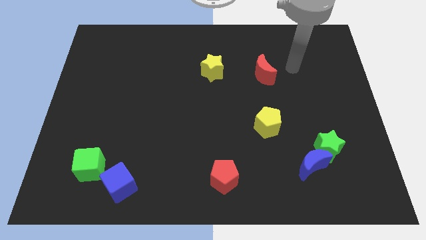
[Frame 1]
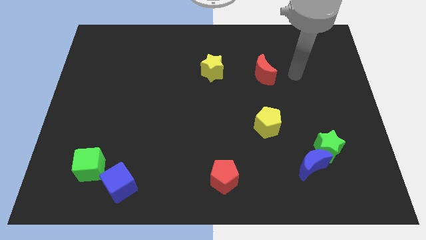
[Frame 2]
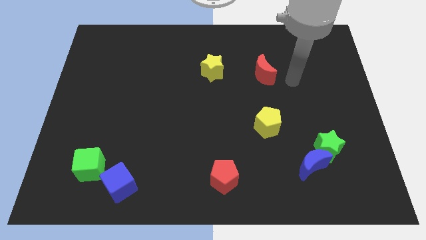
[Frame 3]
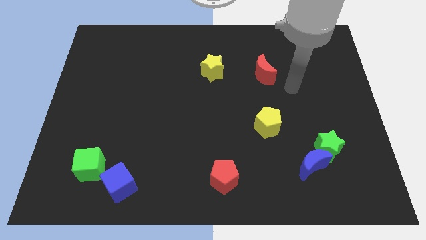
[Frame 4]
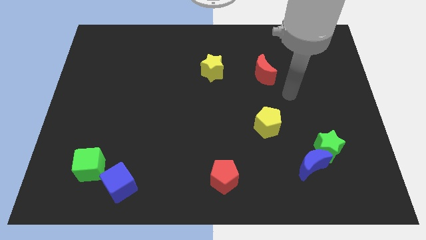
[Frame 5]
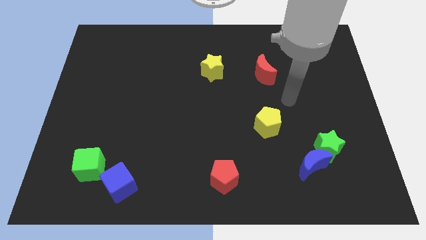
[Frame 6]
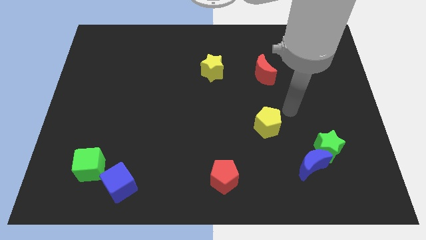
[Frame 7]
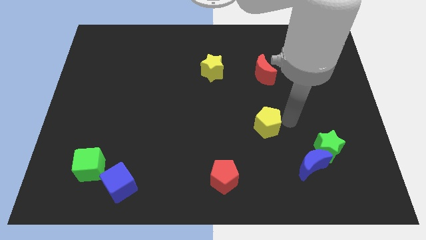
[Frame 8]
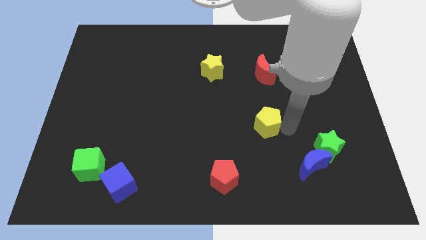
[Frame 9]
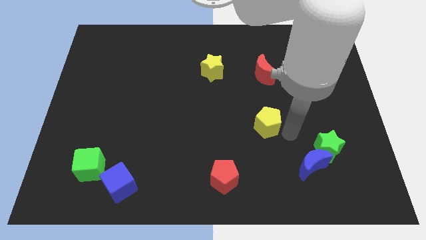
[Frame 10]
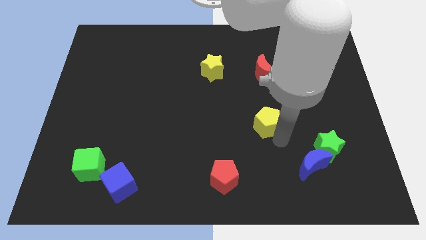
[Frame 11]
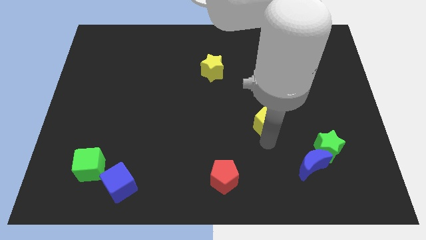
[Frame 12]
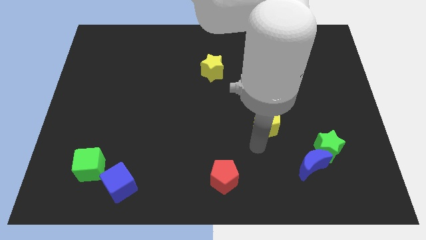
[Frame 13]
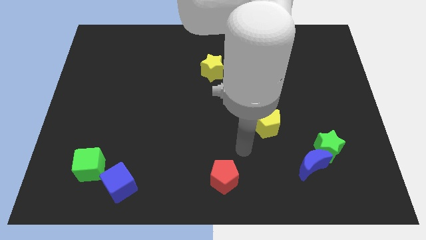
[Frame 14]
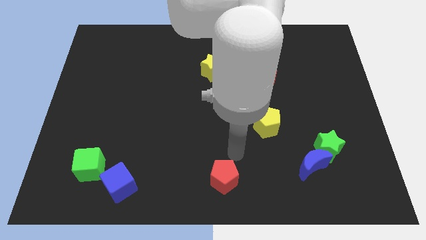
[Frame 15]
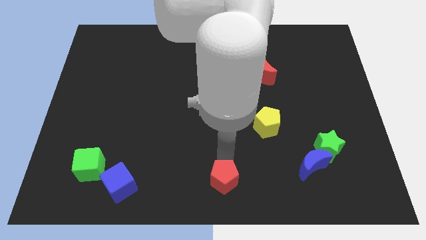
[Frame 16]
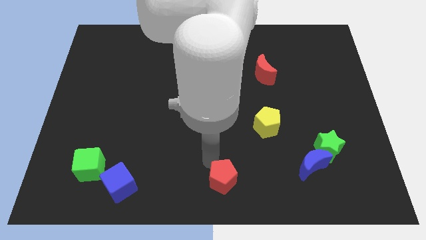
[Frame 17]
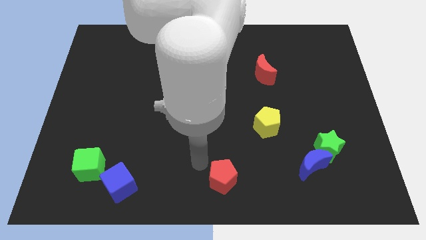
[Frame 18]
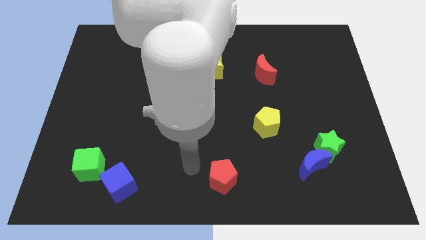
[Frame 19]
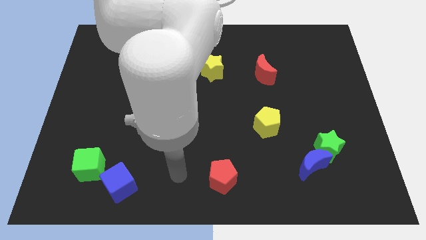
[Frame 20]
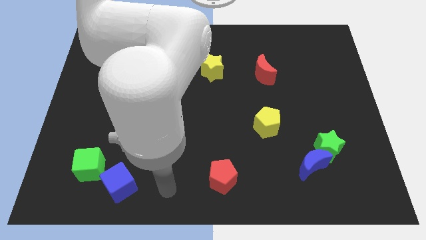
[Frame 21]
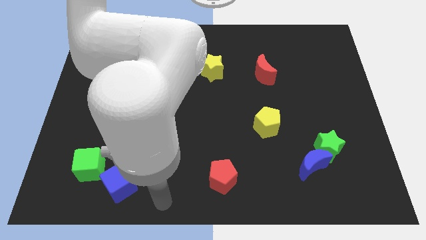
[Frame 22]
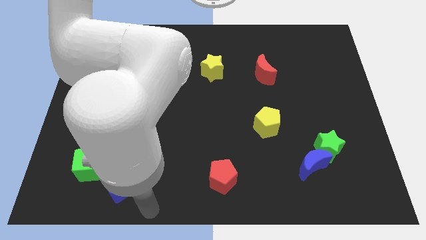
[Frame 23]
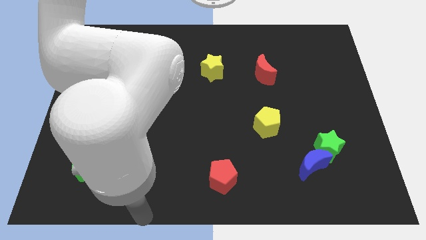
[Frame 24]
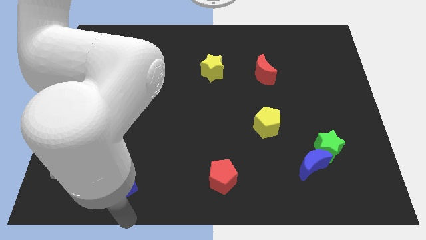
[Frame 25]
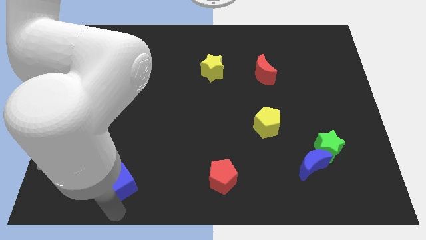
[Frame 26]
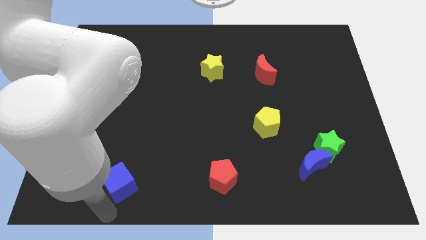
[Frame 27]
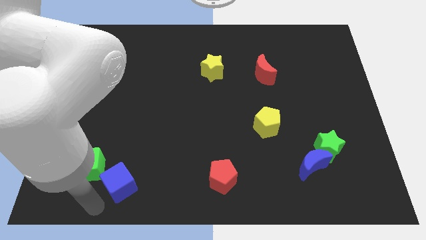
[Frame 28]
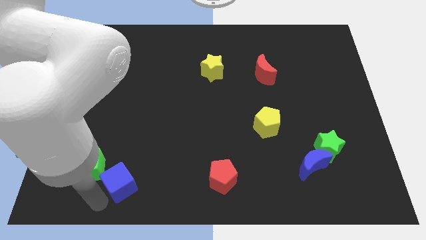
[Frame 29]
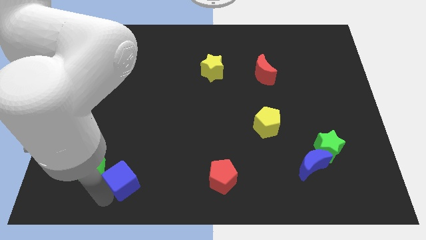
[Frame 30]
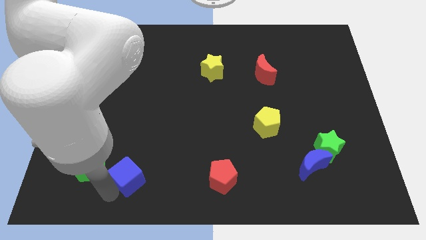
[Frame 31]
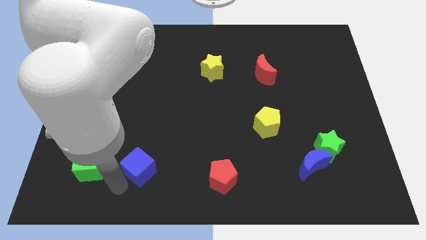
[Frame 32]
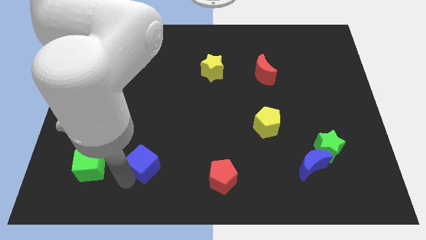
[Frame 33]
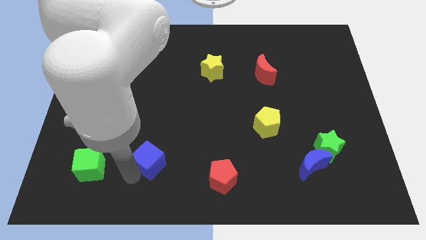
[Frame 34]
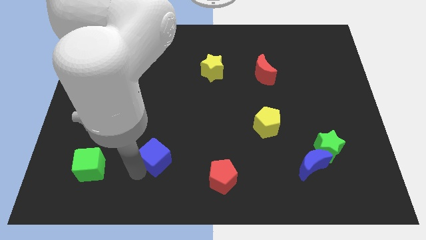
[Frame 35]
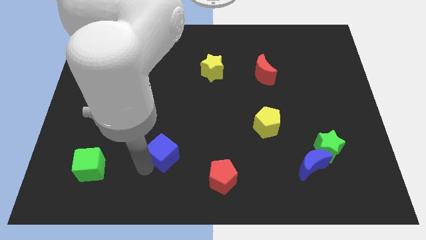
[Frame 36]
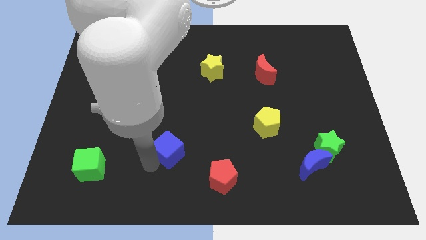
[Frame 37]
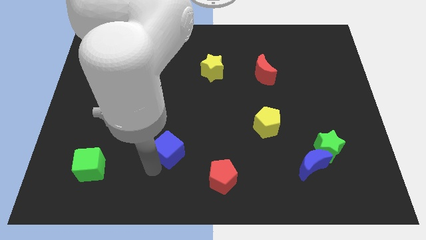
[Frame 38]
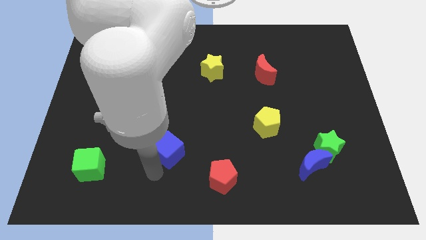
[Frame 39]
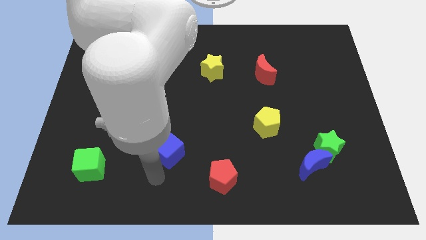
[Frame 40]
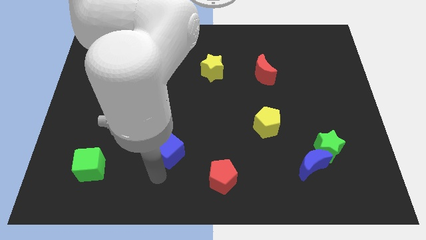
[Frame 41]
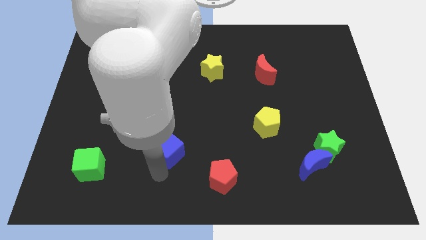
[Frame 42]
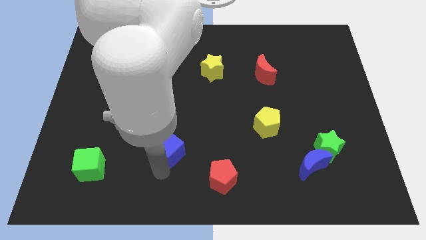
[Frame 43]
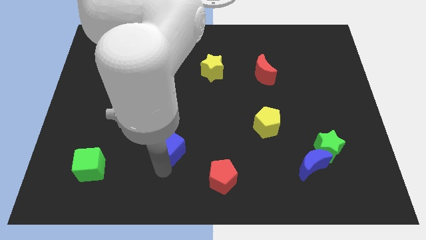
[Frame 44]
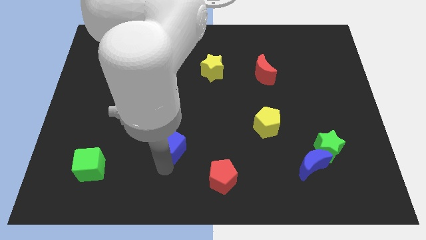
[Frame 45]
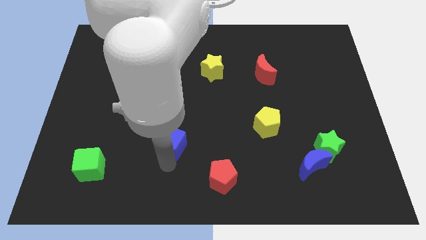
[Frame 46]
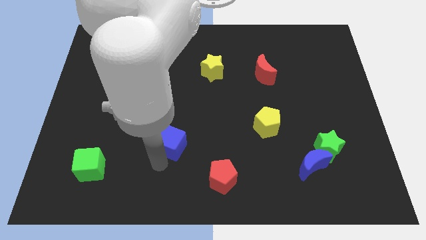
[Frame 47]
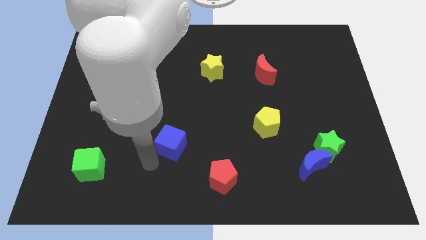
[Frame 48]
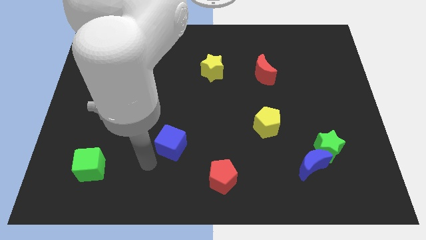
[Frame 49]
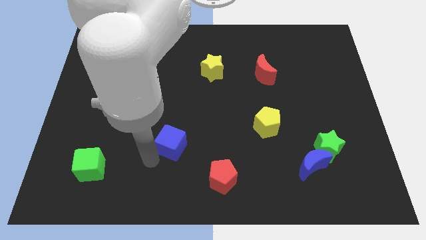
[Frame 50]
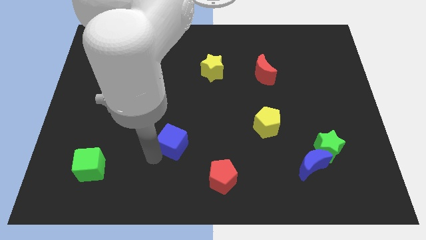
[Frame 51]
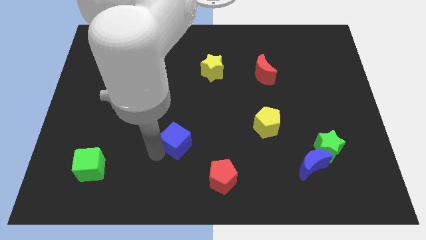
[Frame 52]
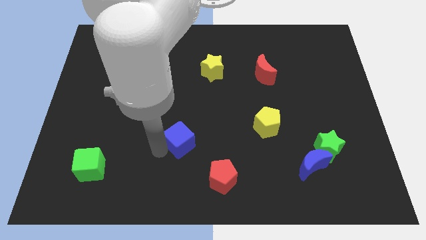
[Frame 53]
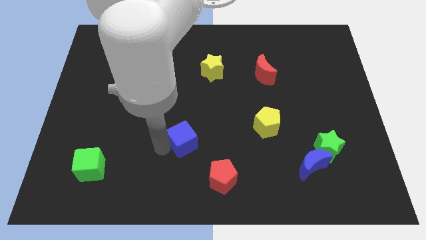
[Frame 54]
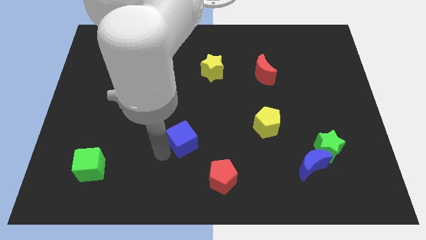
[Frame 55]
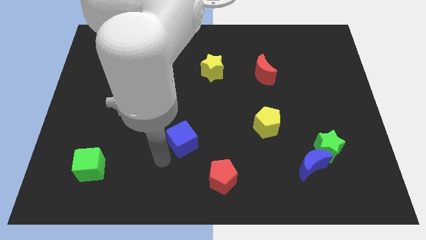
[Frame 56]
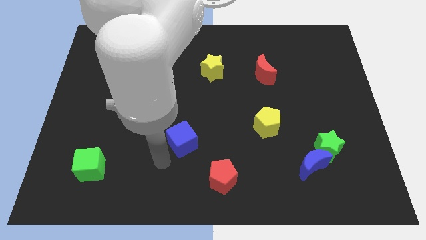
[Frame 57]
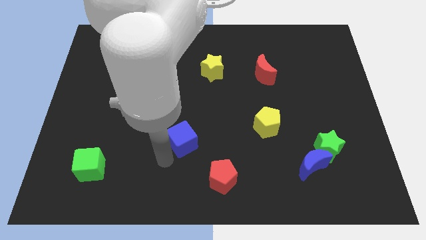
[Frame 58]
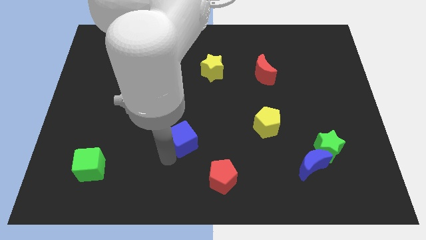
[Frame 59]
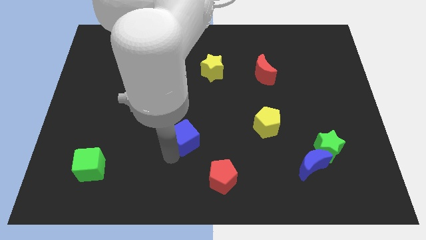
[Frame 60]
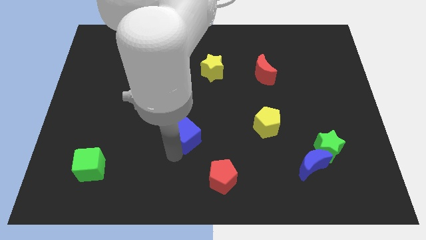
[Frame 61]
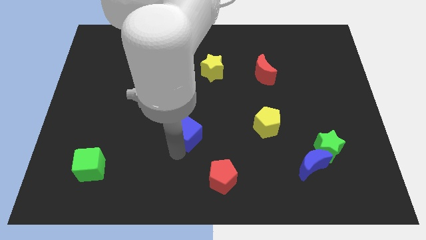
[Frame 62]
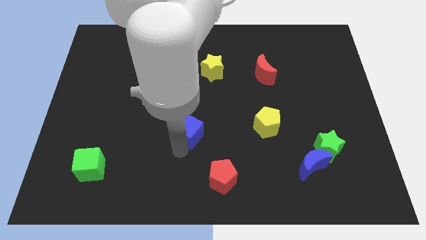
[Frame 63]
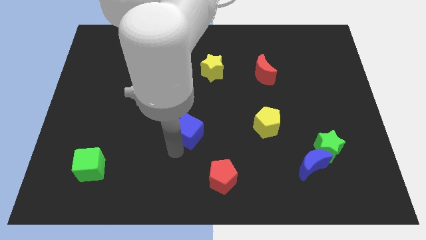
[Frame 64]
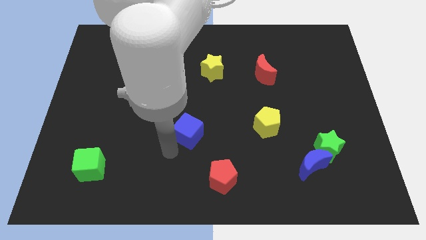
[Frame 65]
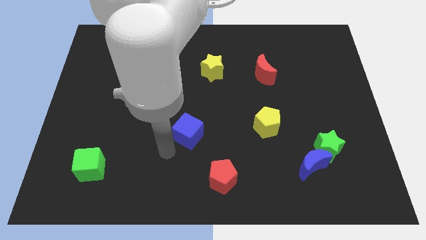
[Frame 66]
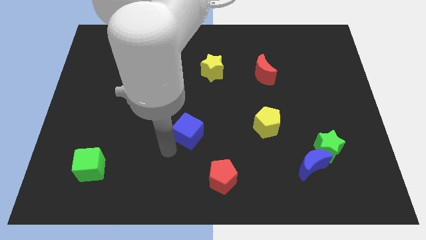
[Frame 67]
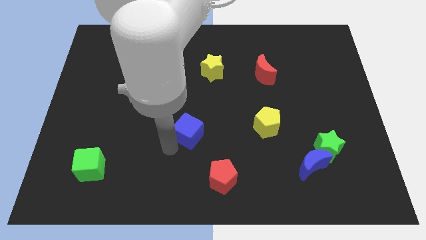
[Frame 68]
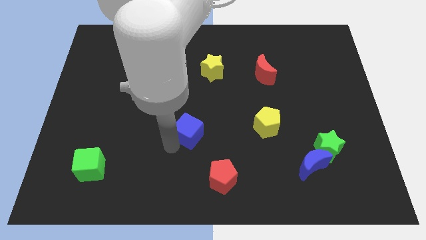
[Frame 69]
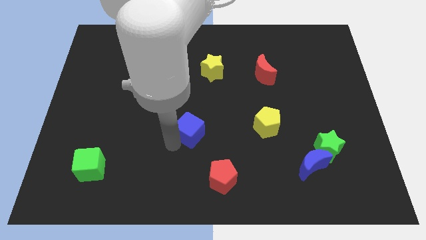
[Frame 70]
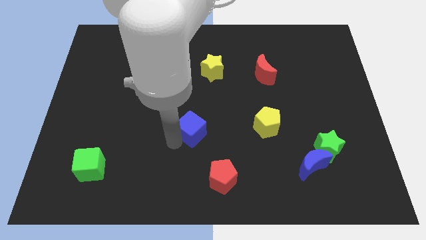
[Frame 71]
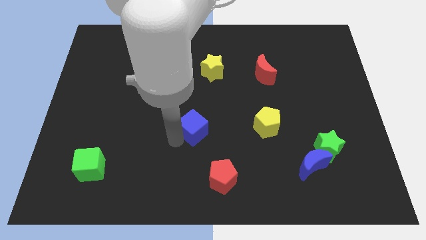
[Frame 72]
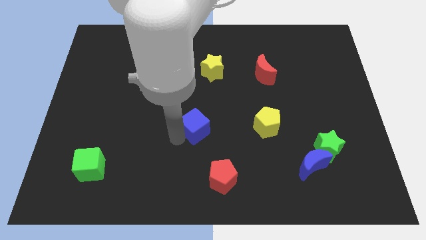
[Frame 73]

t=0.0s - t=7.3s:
slide the blue cube diagonally upwards and right

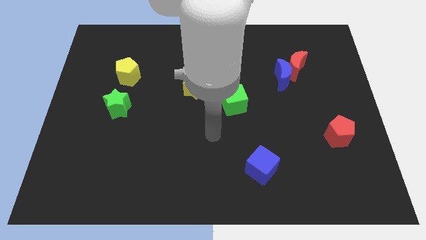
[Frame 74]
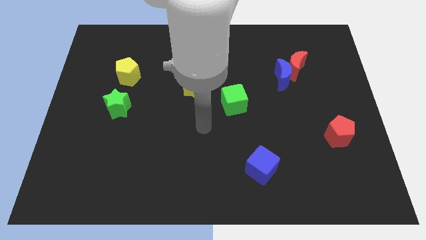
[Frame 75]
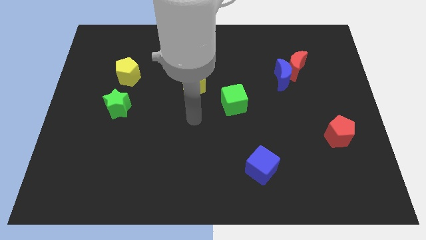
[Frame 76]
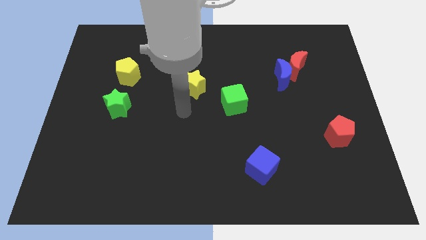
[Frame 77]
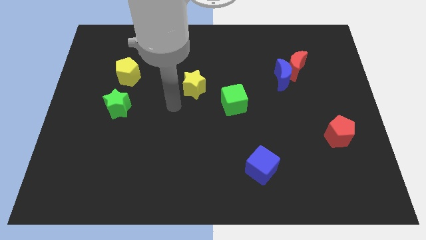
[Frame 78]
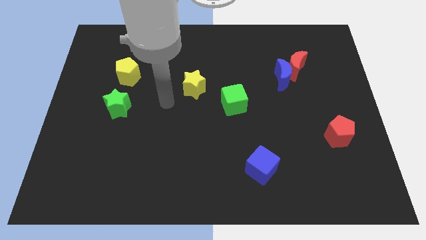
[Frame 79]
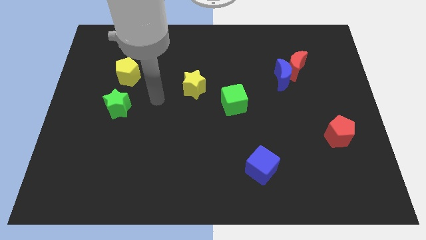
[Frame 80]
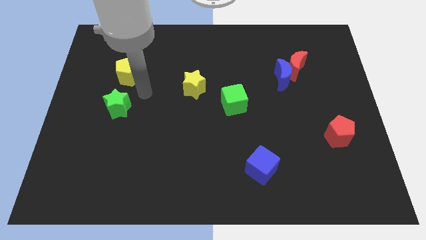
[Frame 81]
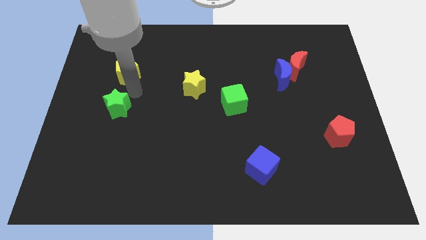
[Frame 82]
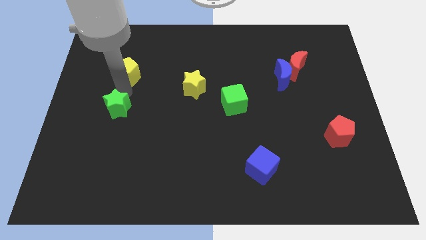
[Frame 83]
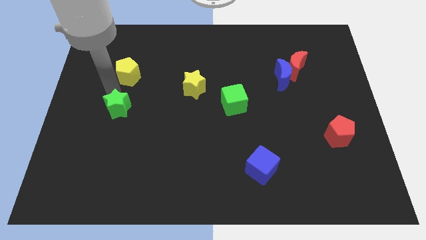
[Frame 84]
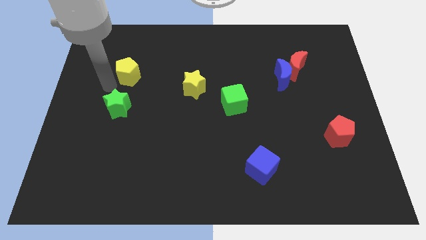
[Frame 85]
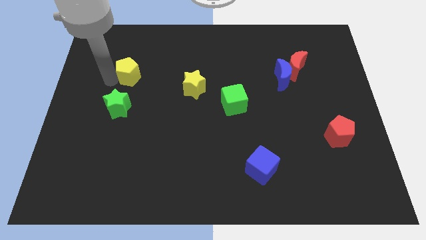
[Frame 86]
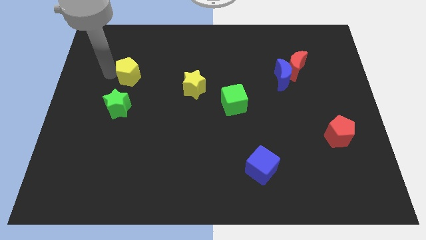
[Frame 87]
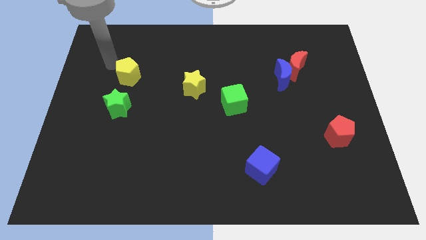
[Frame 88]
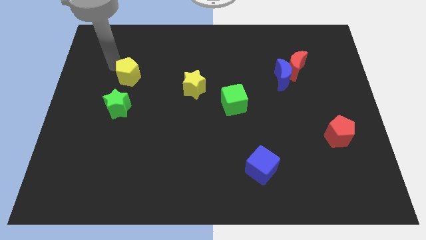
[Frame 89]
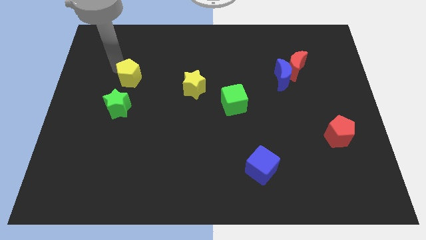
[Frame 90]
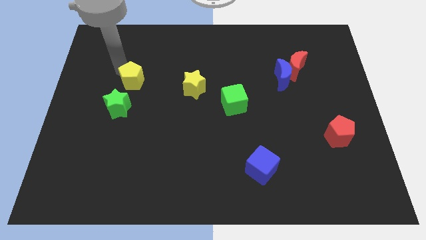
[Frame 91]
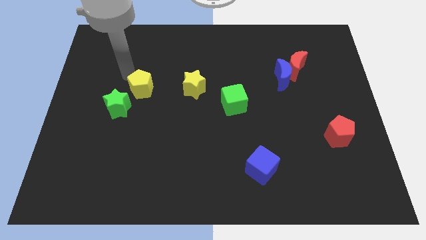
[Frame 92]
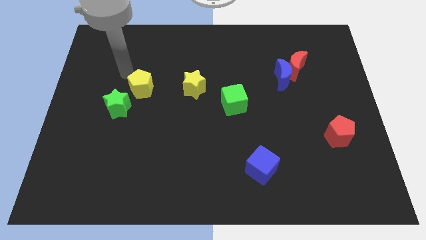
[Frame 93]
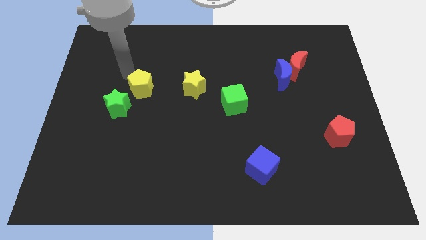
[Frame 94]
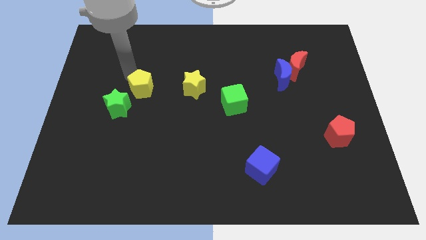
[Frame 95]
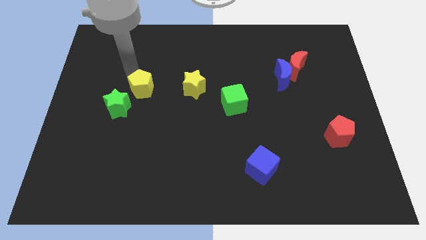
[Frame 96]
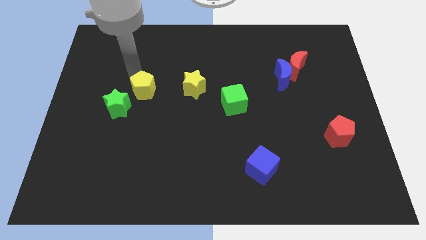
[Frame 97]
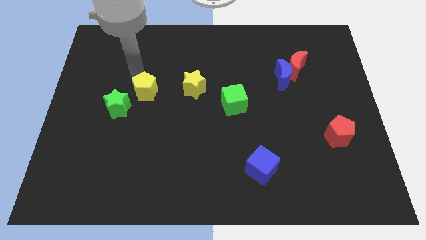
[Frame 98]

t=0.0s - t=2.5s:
push the yellow pentagon a little down and right
